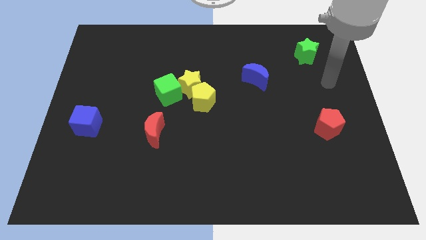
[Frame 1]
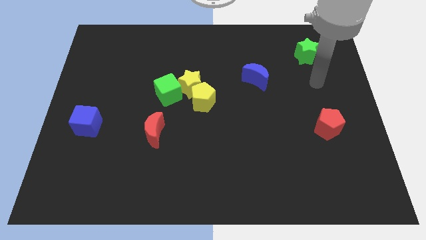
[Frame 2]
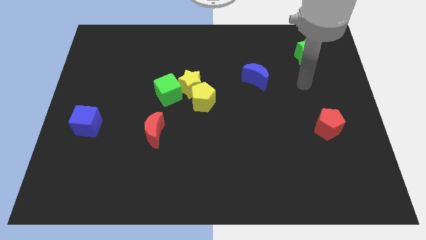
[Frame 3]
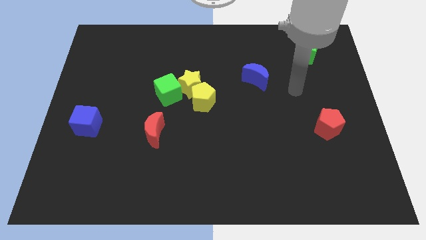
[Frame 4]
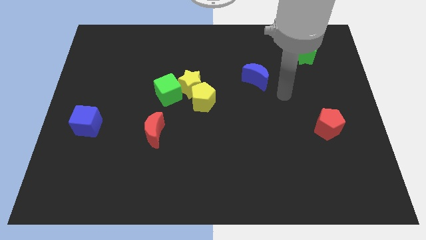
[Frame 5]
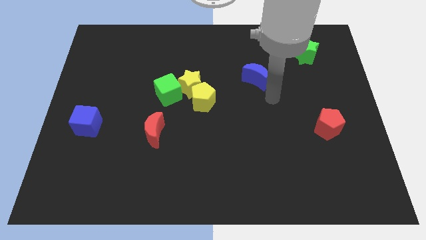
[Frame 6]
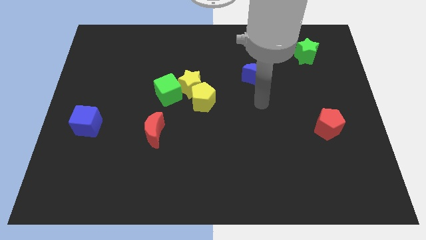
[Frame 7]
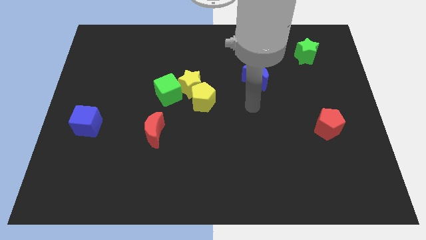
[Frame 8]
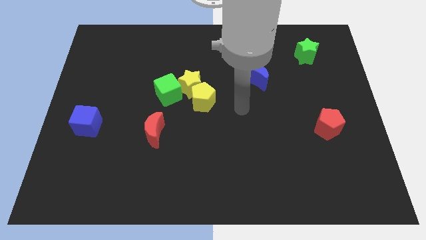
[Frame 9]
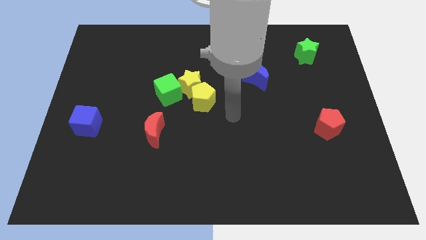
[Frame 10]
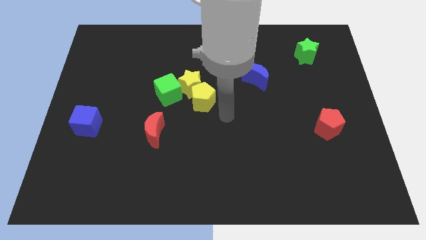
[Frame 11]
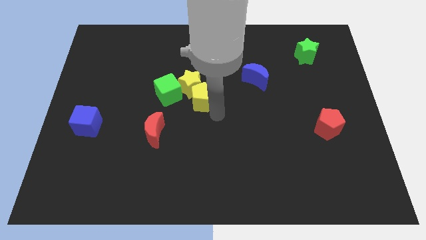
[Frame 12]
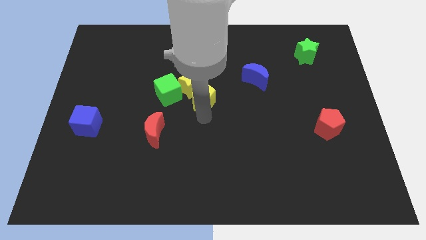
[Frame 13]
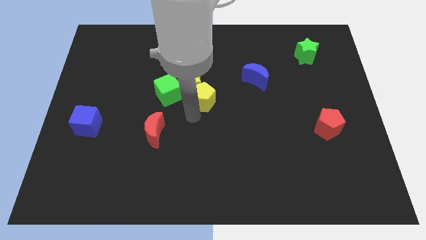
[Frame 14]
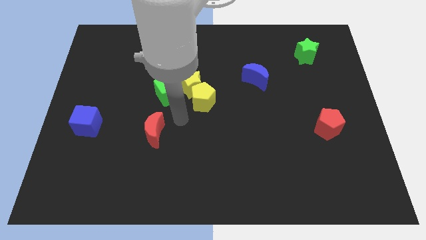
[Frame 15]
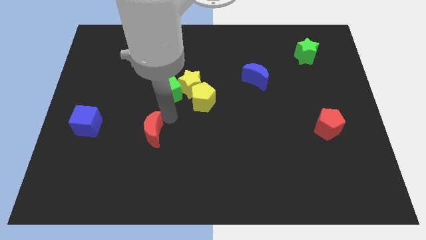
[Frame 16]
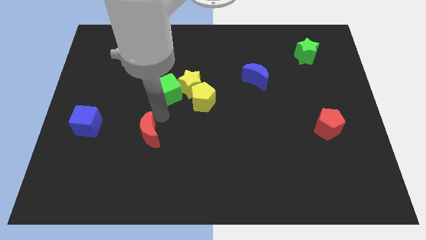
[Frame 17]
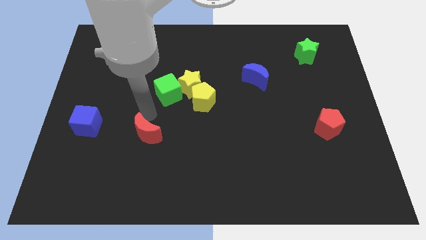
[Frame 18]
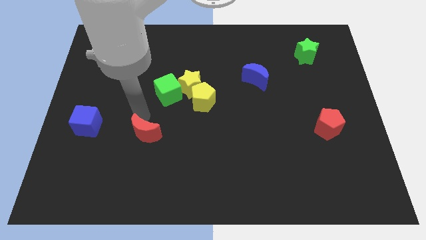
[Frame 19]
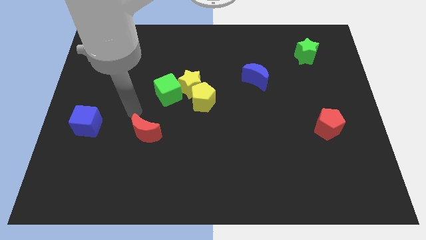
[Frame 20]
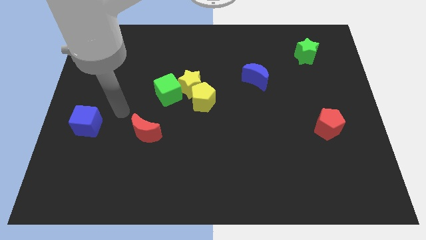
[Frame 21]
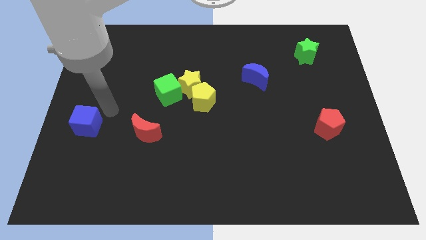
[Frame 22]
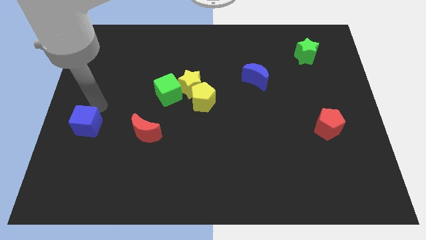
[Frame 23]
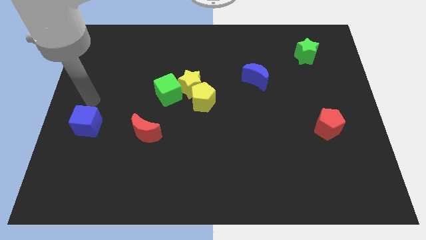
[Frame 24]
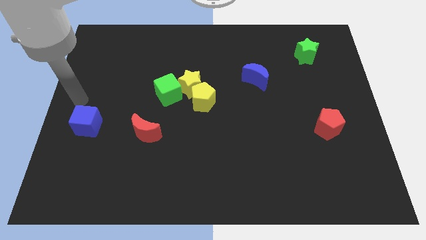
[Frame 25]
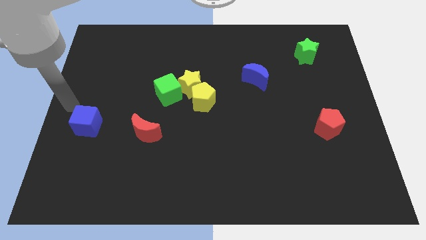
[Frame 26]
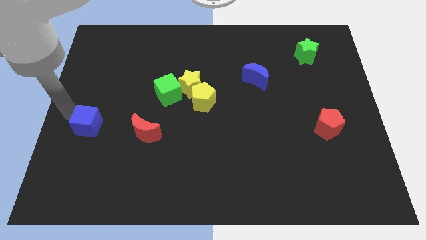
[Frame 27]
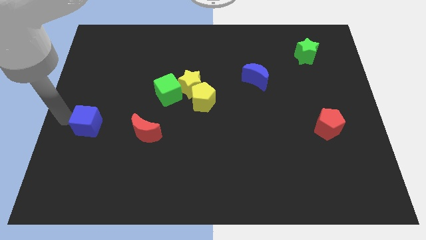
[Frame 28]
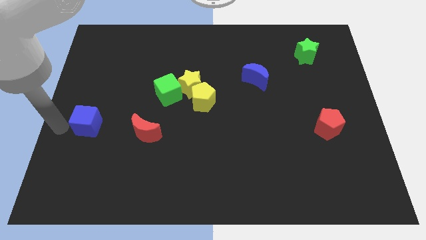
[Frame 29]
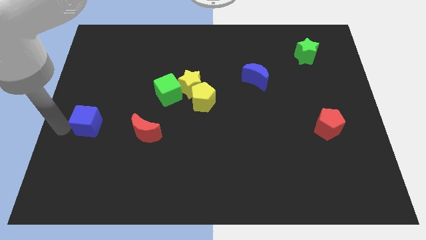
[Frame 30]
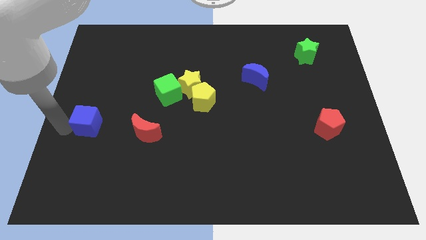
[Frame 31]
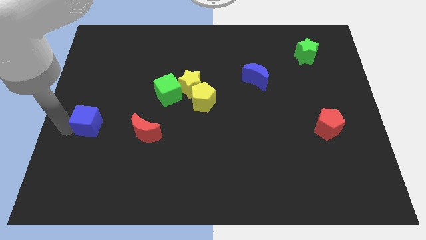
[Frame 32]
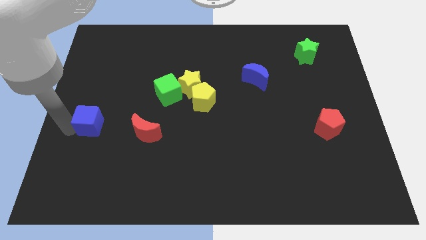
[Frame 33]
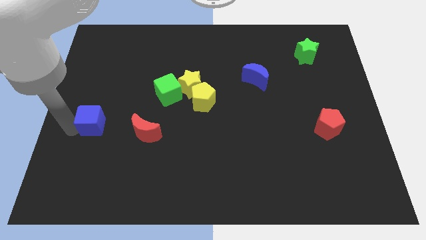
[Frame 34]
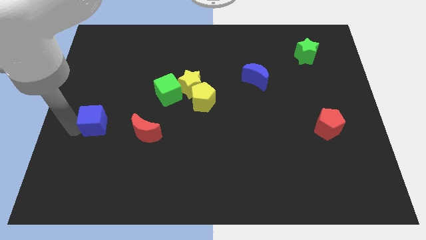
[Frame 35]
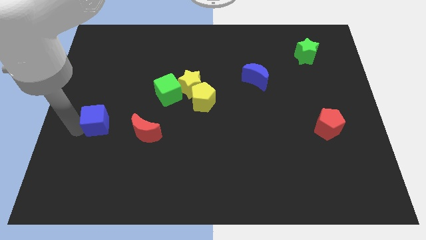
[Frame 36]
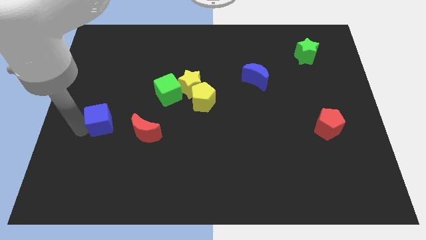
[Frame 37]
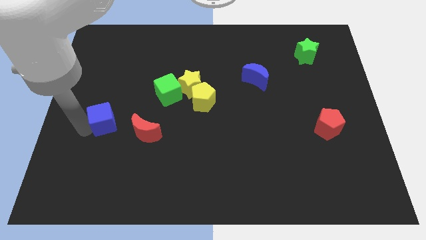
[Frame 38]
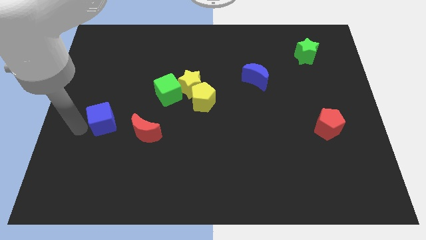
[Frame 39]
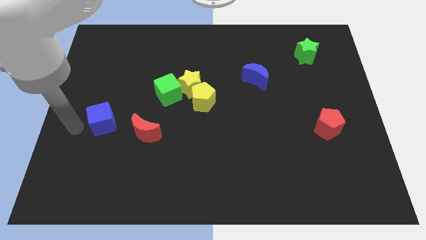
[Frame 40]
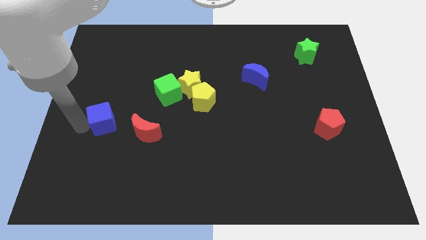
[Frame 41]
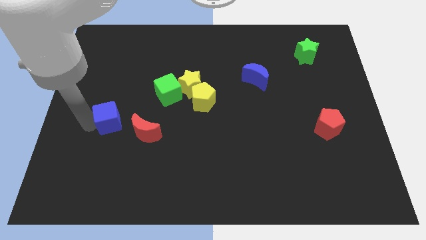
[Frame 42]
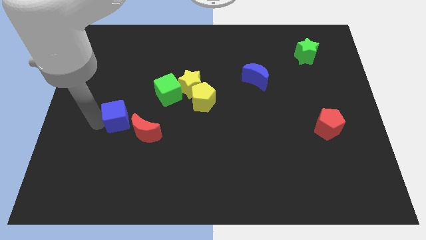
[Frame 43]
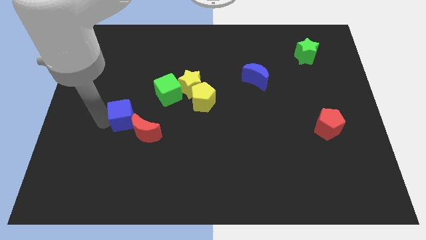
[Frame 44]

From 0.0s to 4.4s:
slide the blue cube somewhat to the right

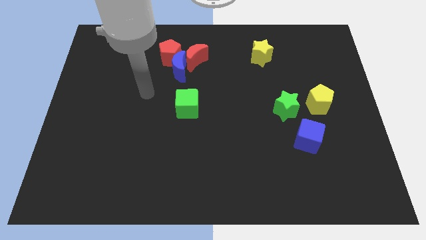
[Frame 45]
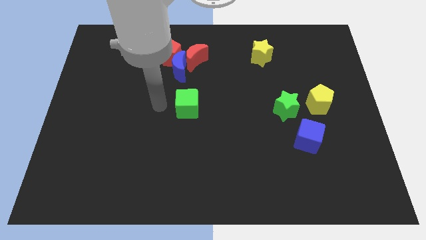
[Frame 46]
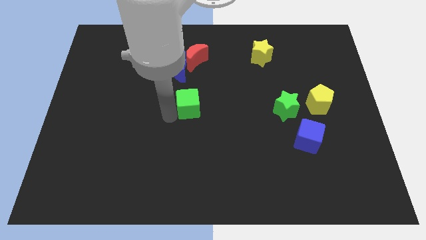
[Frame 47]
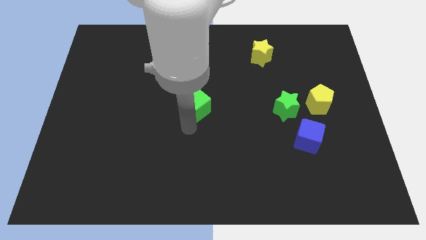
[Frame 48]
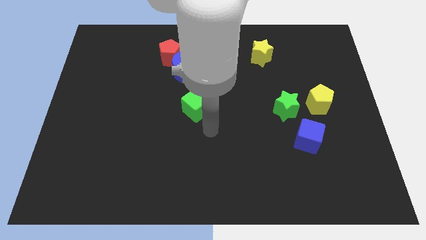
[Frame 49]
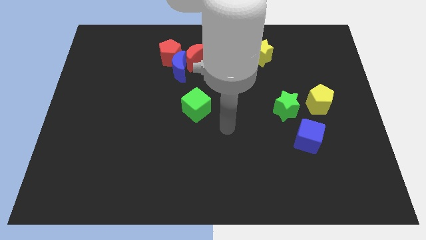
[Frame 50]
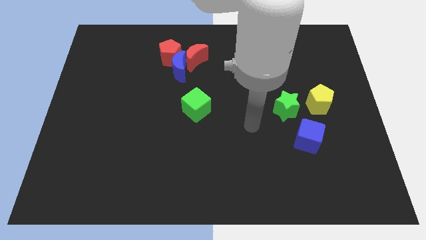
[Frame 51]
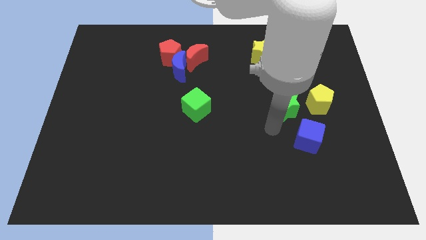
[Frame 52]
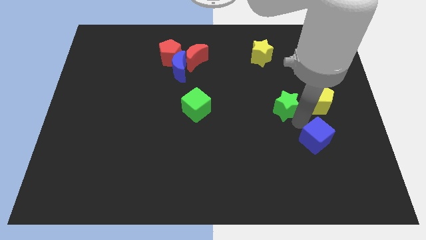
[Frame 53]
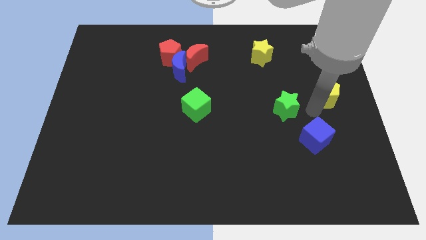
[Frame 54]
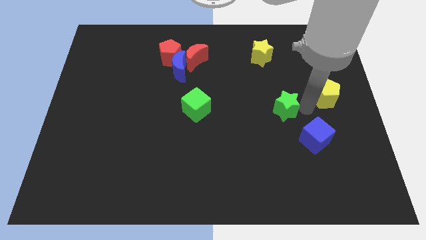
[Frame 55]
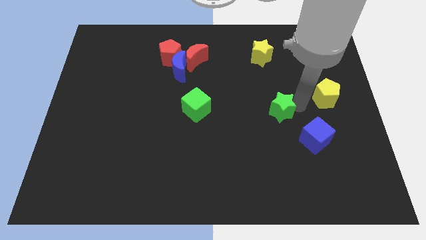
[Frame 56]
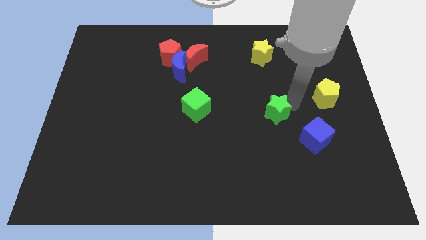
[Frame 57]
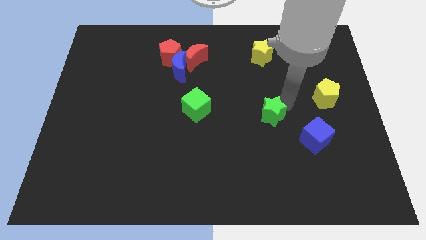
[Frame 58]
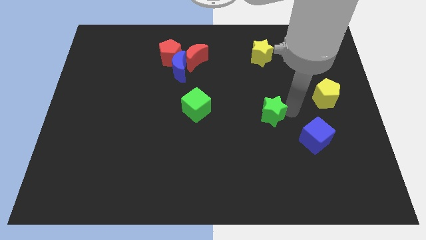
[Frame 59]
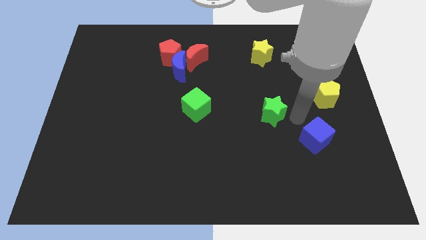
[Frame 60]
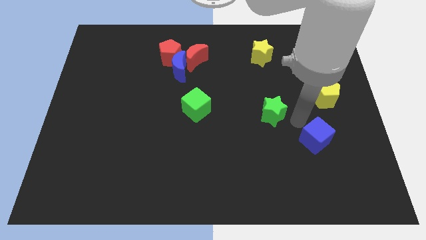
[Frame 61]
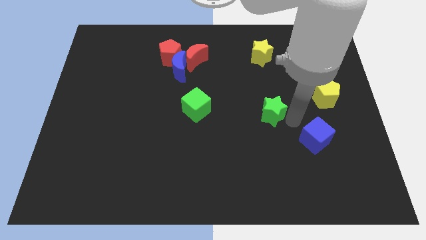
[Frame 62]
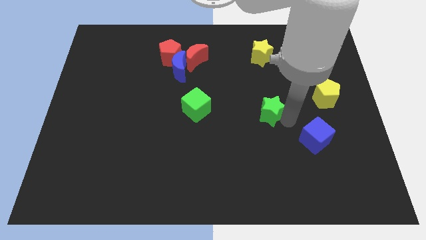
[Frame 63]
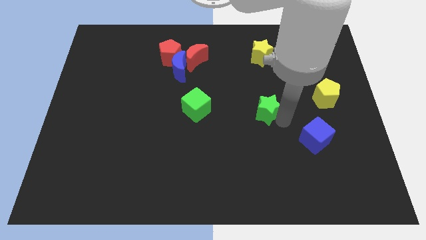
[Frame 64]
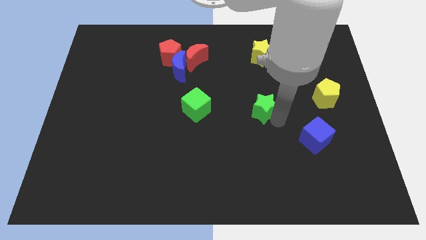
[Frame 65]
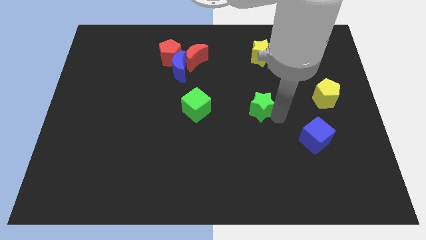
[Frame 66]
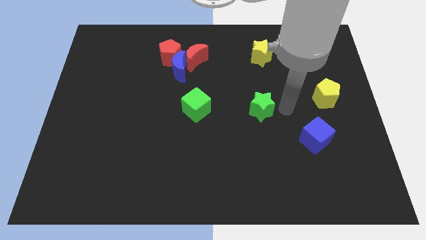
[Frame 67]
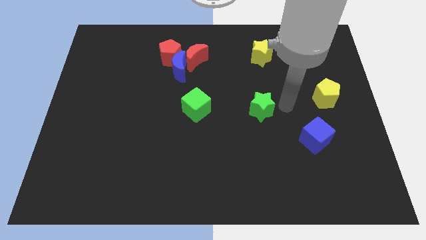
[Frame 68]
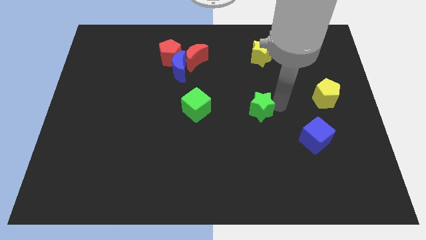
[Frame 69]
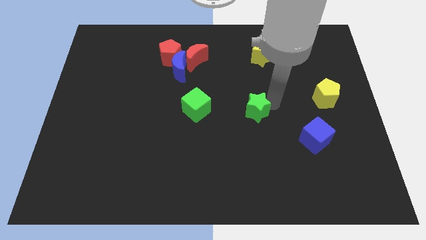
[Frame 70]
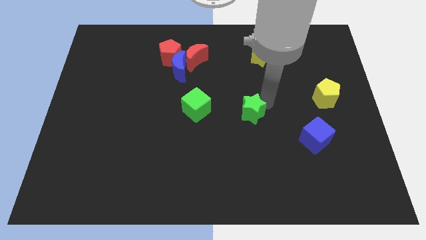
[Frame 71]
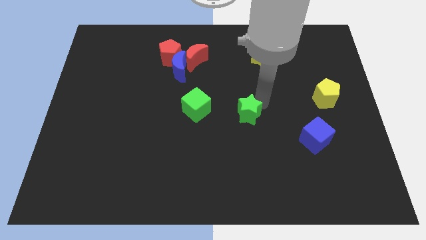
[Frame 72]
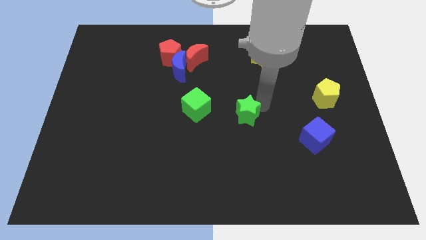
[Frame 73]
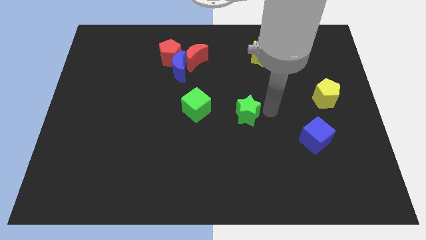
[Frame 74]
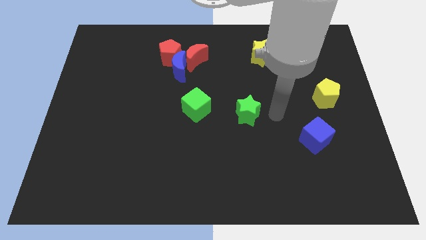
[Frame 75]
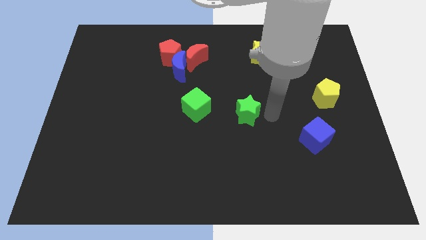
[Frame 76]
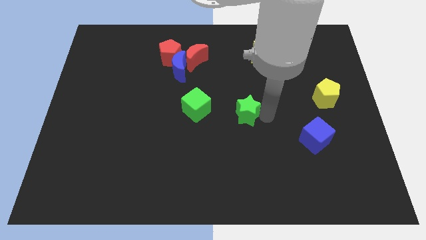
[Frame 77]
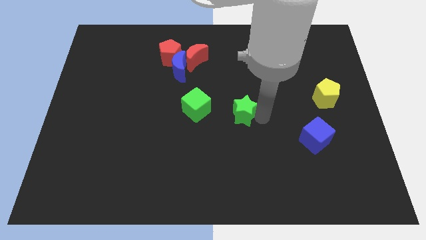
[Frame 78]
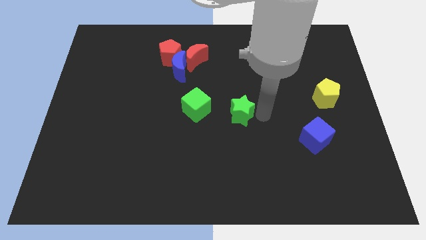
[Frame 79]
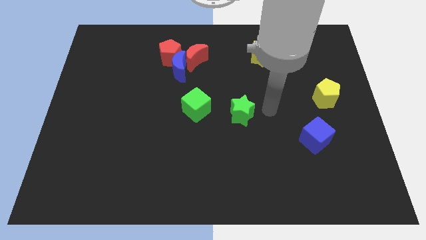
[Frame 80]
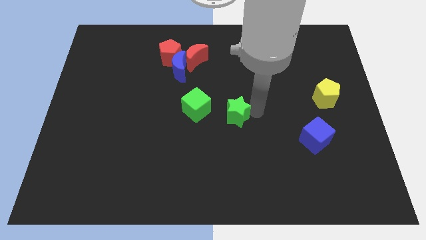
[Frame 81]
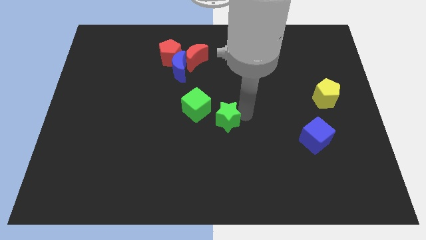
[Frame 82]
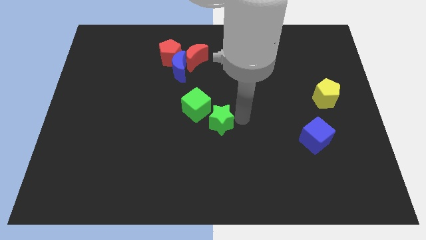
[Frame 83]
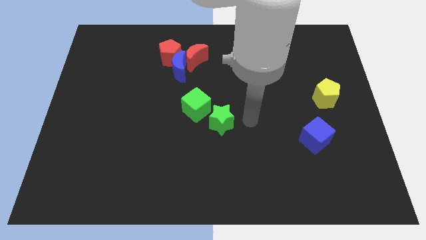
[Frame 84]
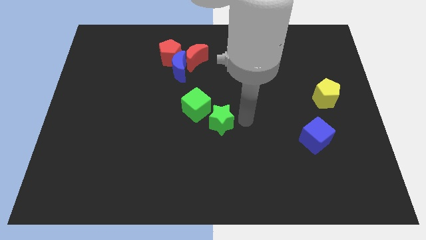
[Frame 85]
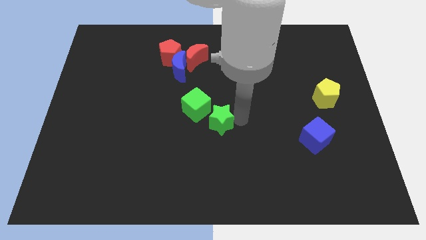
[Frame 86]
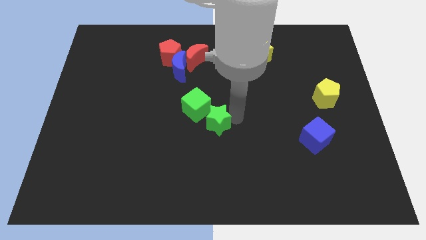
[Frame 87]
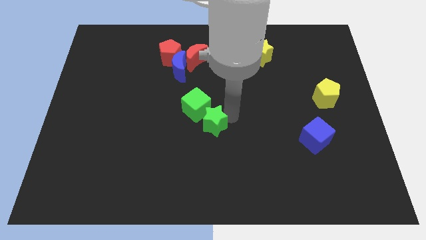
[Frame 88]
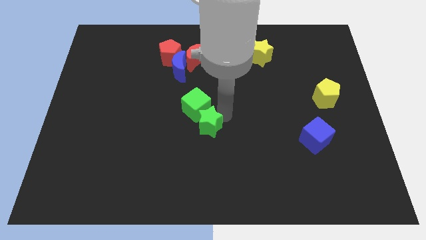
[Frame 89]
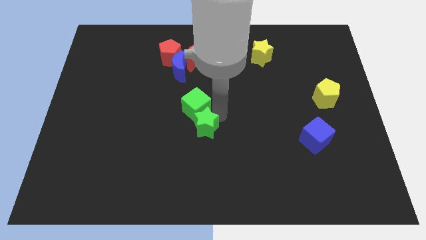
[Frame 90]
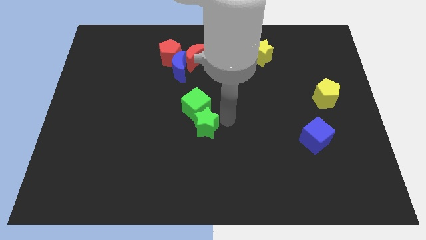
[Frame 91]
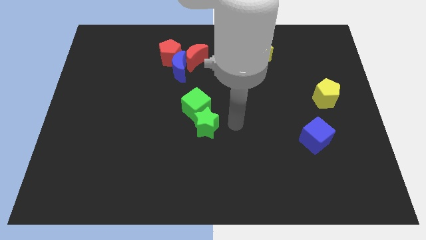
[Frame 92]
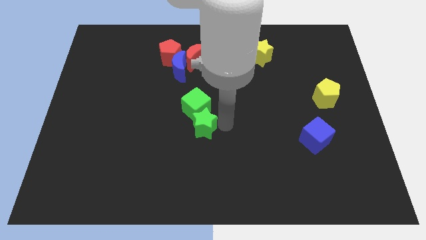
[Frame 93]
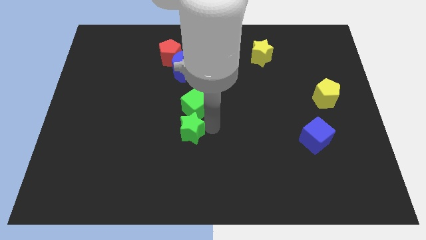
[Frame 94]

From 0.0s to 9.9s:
slide the green star to the left
